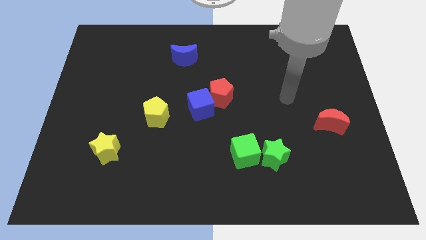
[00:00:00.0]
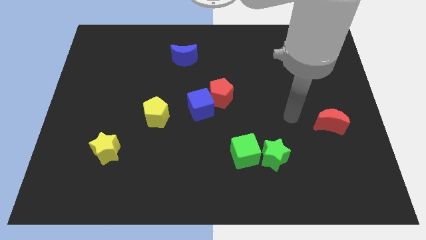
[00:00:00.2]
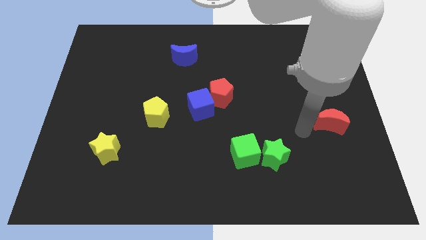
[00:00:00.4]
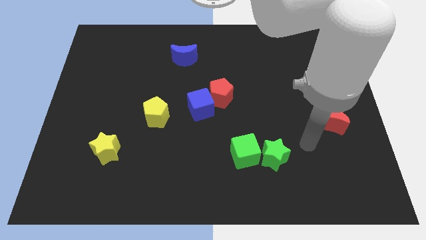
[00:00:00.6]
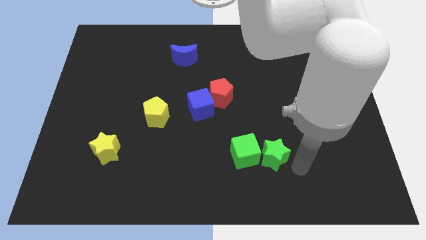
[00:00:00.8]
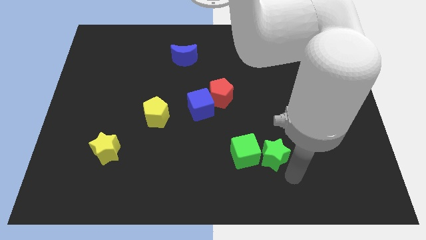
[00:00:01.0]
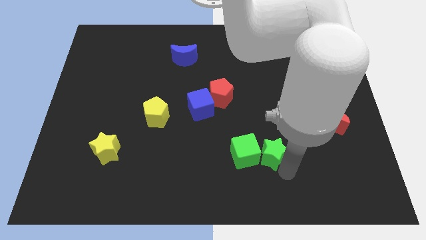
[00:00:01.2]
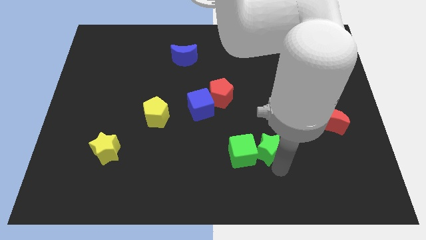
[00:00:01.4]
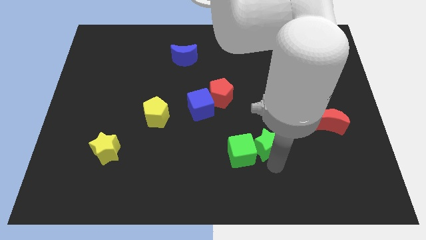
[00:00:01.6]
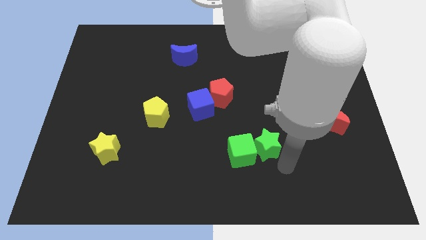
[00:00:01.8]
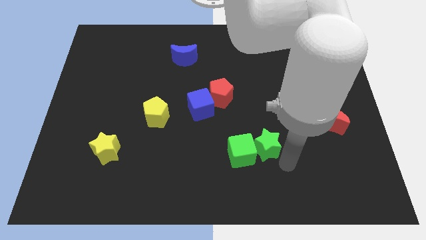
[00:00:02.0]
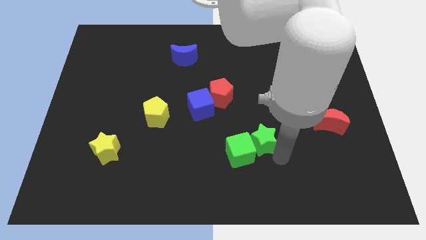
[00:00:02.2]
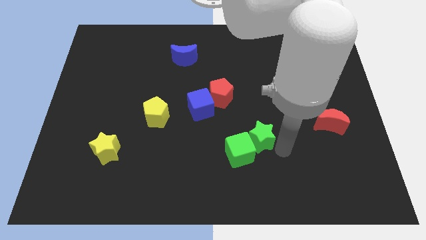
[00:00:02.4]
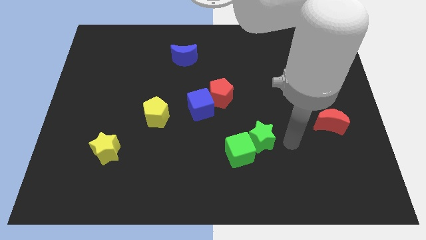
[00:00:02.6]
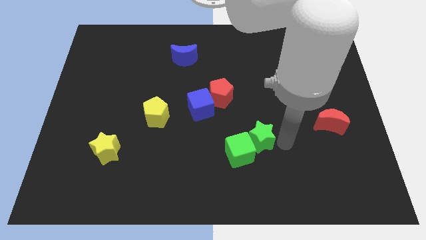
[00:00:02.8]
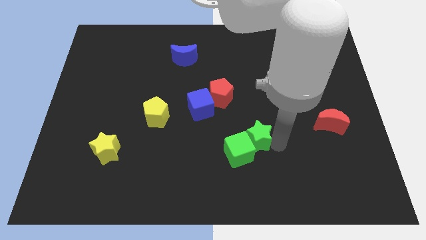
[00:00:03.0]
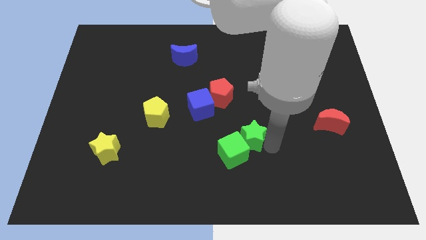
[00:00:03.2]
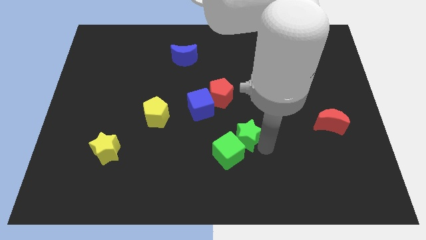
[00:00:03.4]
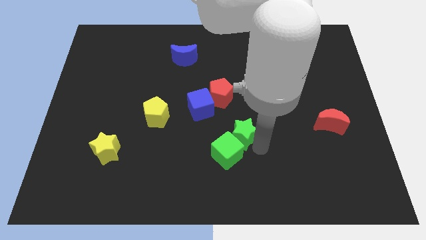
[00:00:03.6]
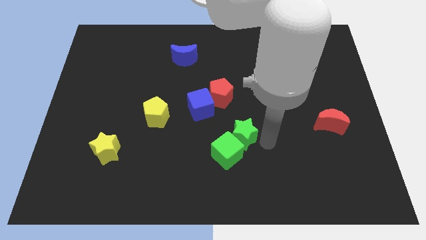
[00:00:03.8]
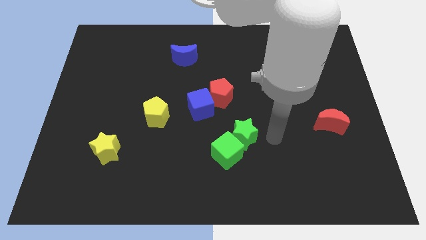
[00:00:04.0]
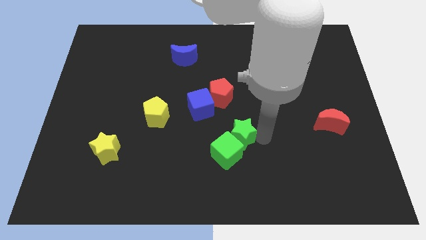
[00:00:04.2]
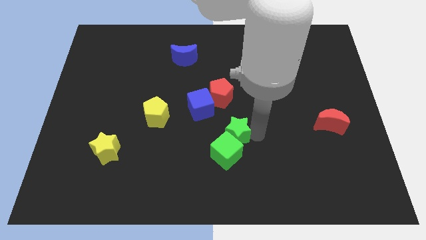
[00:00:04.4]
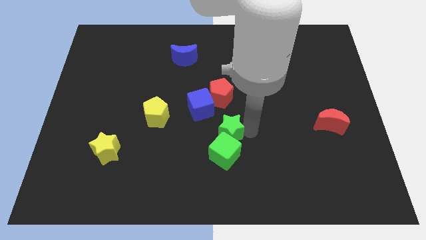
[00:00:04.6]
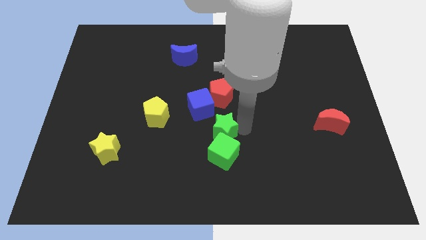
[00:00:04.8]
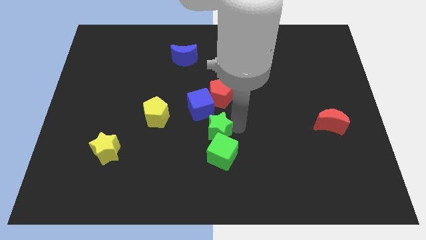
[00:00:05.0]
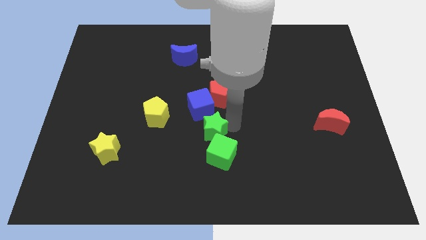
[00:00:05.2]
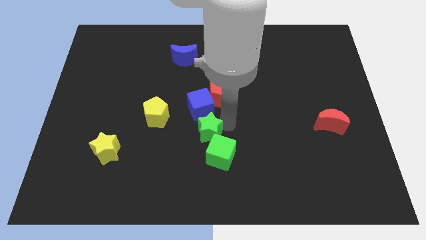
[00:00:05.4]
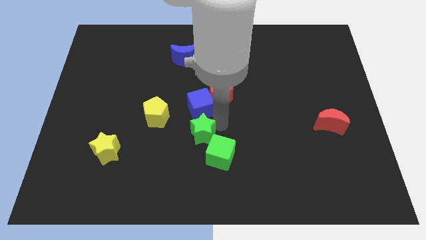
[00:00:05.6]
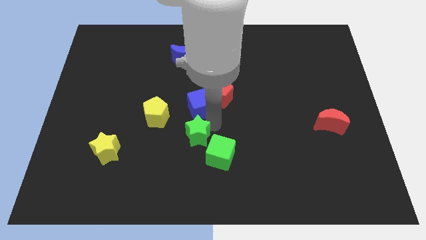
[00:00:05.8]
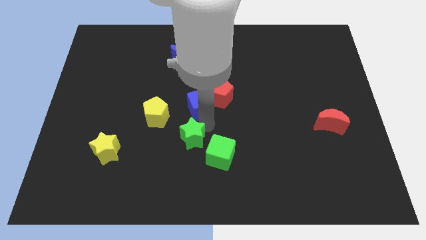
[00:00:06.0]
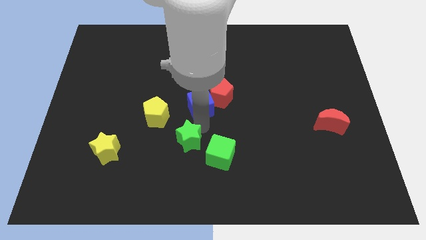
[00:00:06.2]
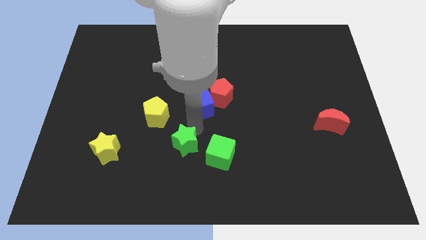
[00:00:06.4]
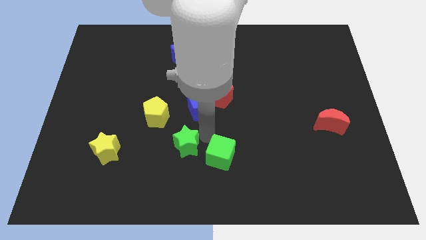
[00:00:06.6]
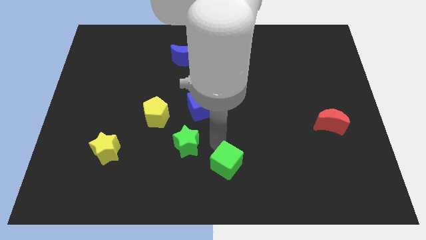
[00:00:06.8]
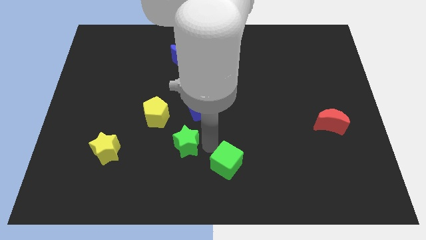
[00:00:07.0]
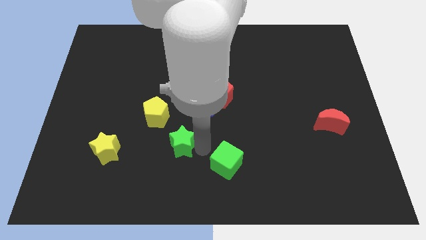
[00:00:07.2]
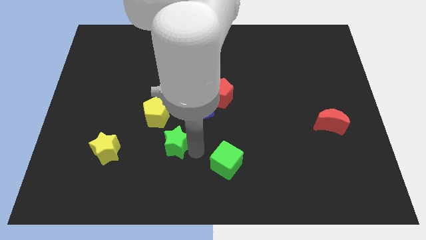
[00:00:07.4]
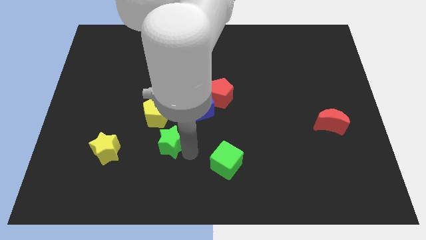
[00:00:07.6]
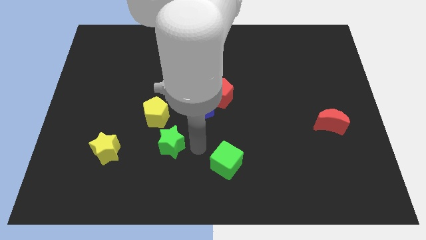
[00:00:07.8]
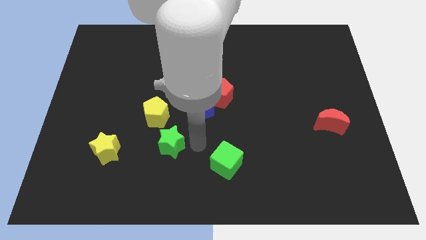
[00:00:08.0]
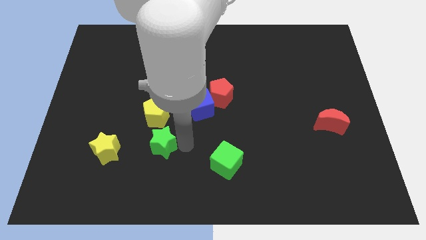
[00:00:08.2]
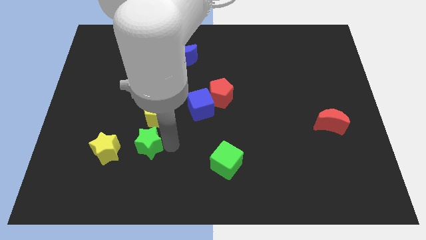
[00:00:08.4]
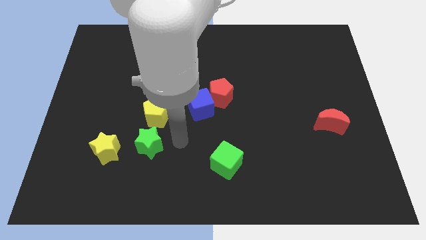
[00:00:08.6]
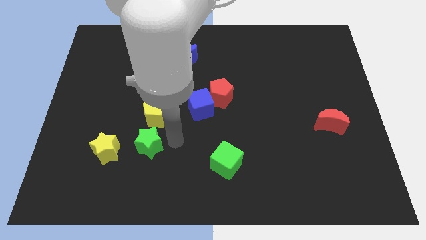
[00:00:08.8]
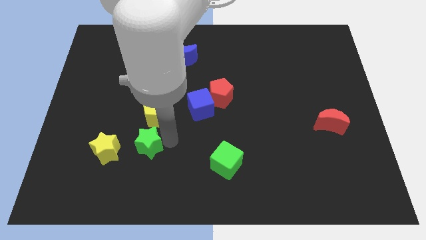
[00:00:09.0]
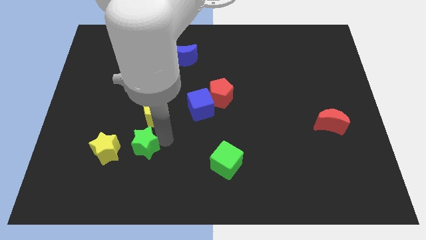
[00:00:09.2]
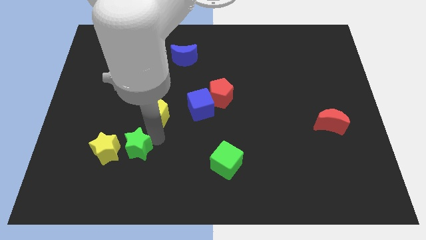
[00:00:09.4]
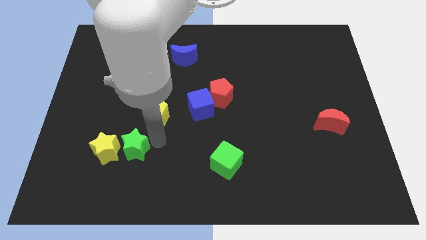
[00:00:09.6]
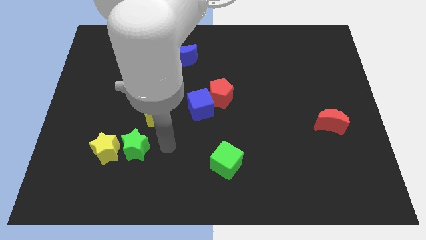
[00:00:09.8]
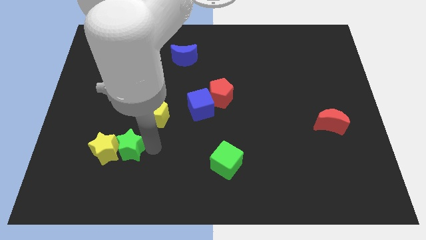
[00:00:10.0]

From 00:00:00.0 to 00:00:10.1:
slide the green star next to the yellow star

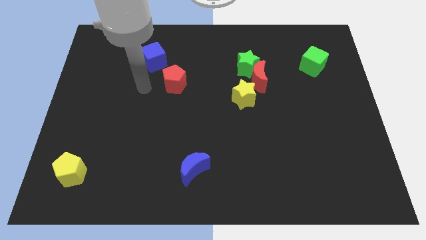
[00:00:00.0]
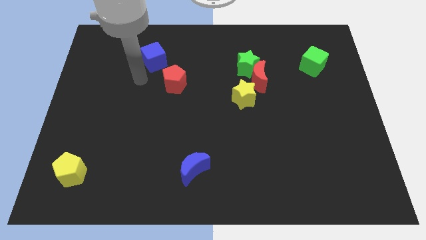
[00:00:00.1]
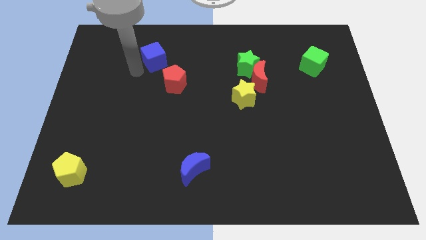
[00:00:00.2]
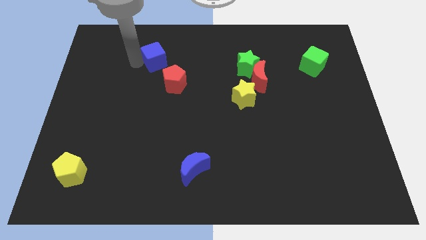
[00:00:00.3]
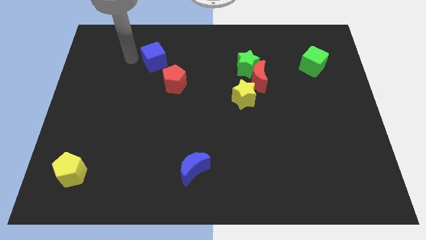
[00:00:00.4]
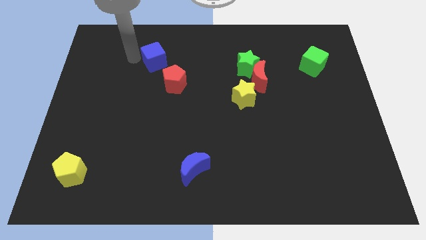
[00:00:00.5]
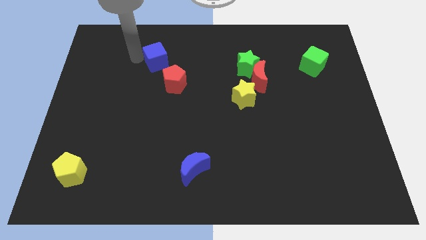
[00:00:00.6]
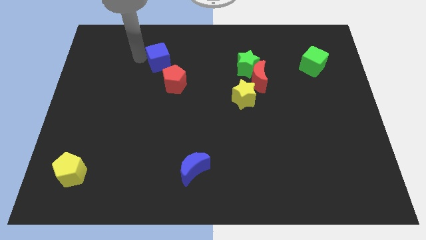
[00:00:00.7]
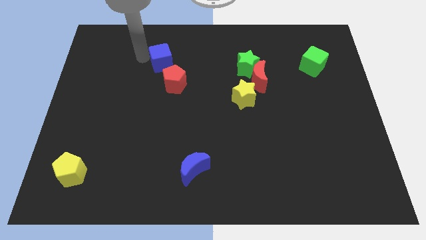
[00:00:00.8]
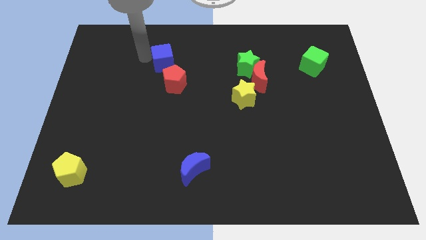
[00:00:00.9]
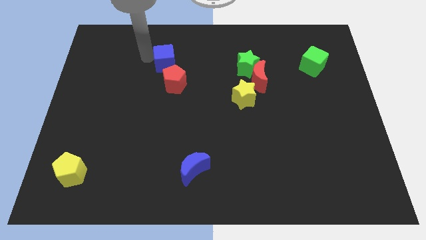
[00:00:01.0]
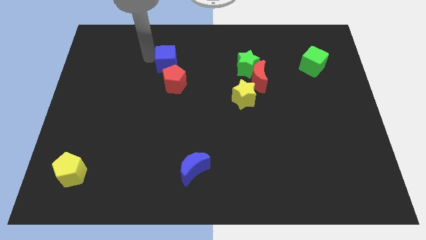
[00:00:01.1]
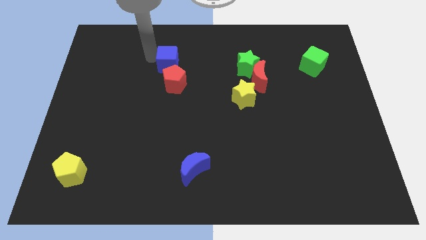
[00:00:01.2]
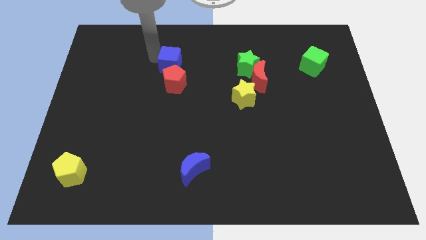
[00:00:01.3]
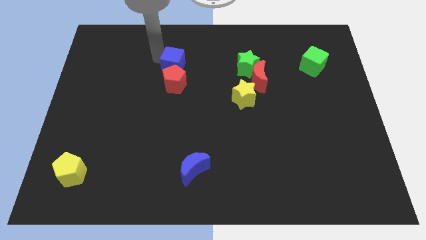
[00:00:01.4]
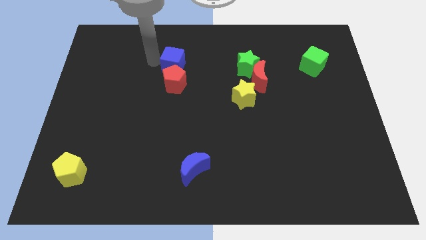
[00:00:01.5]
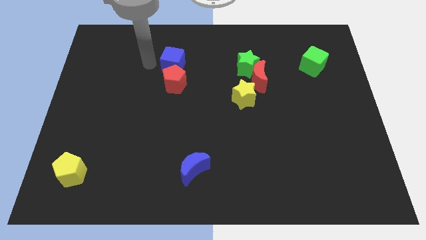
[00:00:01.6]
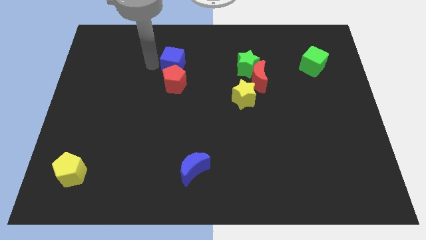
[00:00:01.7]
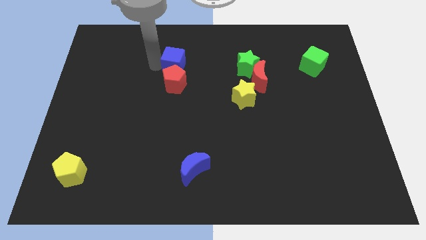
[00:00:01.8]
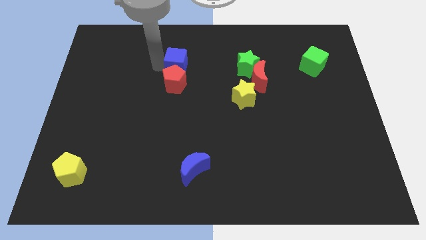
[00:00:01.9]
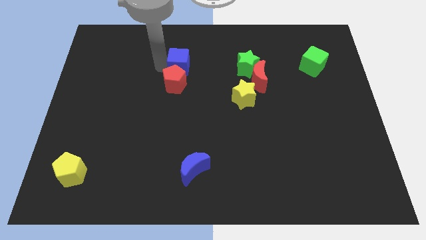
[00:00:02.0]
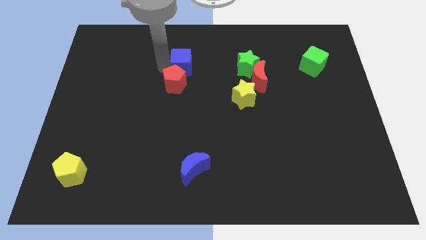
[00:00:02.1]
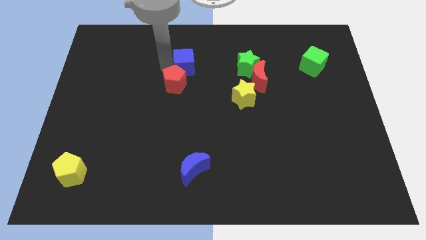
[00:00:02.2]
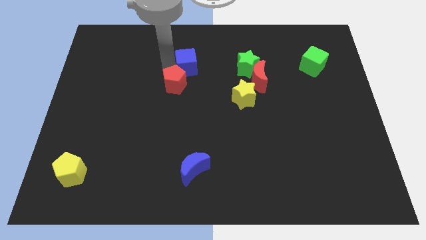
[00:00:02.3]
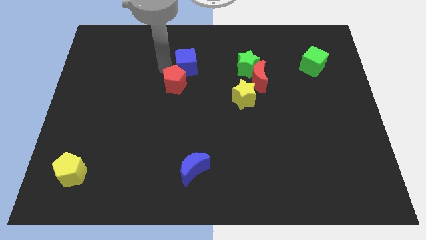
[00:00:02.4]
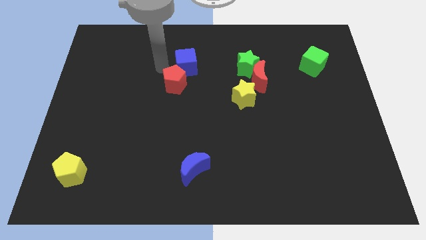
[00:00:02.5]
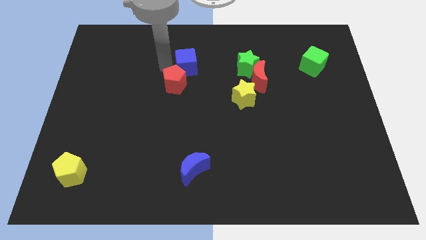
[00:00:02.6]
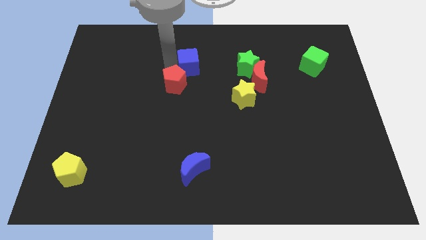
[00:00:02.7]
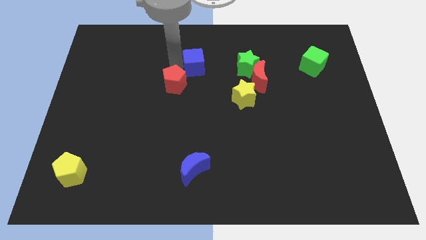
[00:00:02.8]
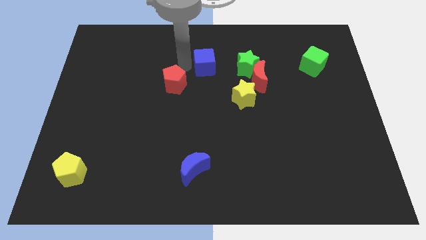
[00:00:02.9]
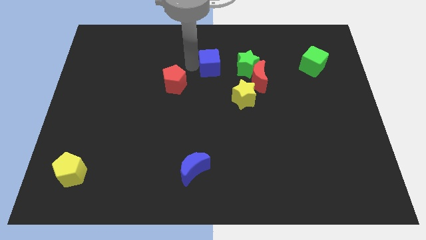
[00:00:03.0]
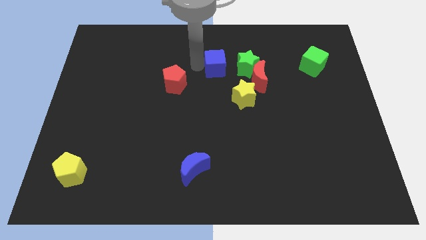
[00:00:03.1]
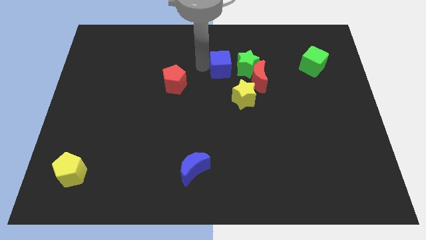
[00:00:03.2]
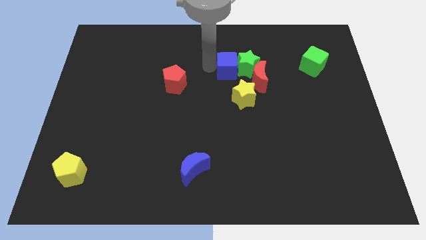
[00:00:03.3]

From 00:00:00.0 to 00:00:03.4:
slide the blue cube next to the green star
